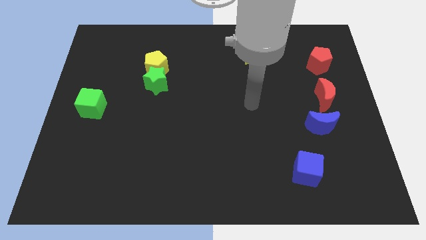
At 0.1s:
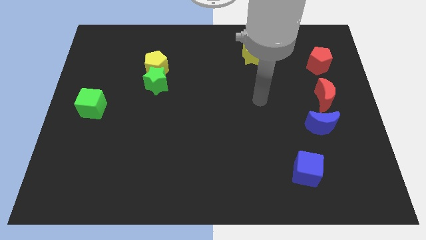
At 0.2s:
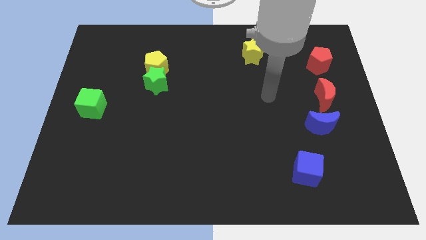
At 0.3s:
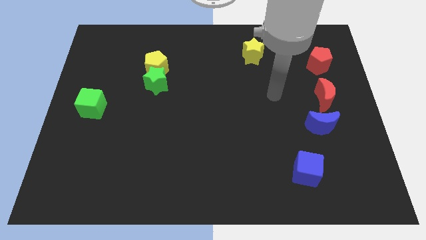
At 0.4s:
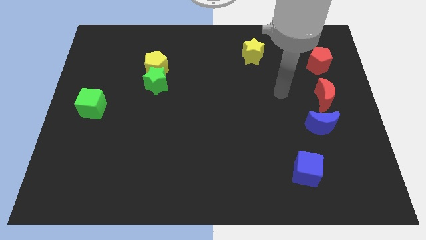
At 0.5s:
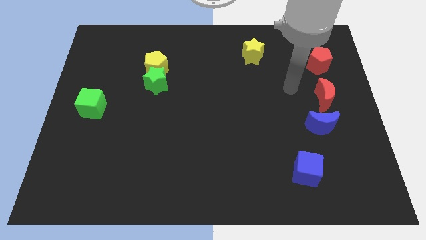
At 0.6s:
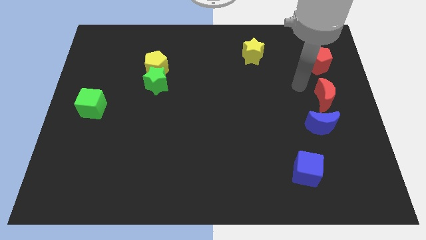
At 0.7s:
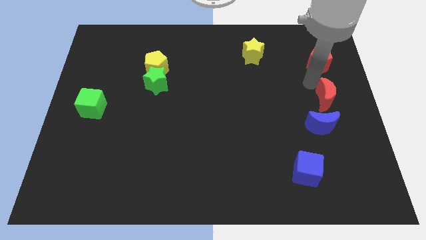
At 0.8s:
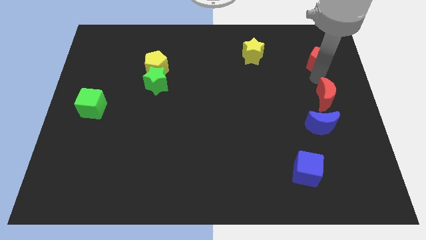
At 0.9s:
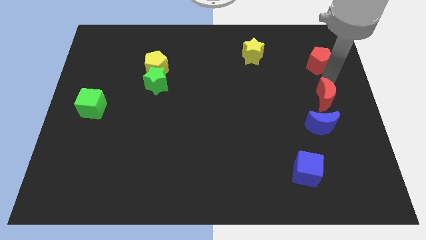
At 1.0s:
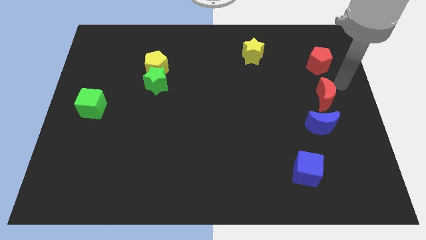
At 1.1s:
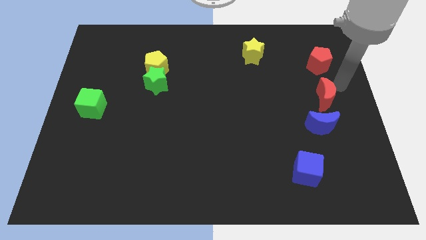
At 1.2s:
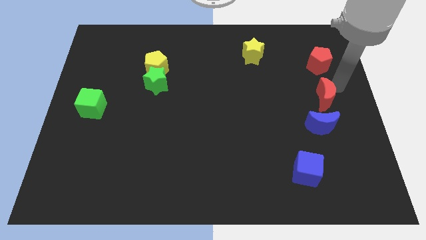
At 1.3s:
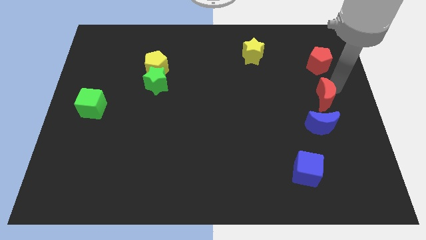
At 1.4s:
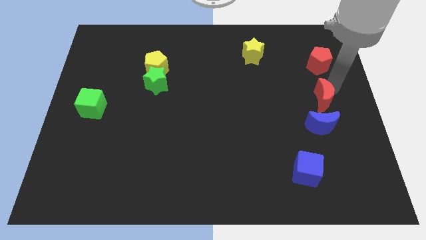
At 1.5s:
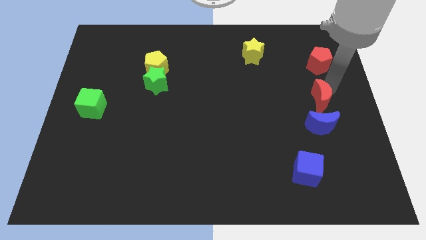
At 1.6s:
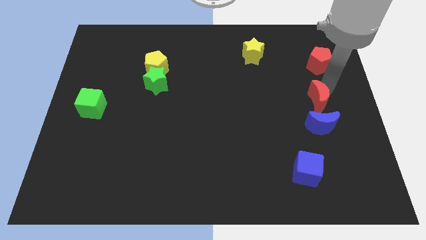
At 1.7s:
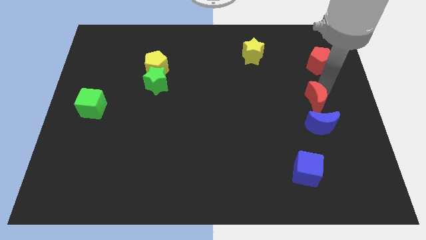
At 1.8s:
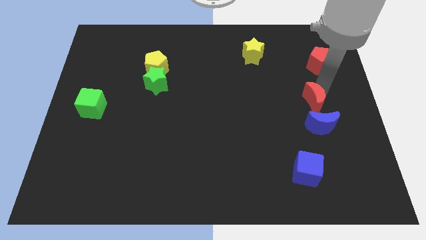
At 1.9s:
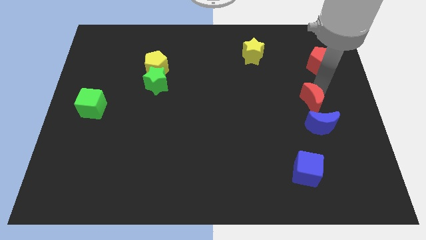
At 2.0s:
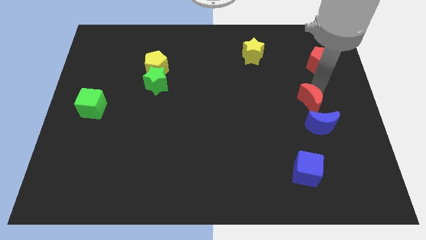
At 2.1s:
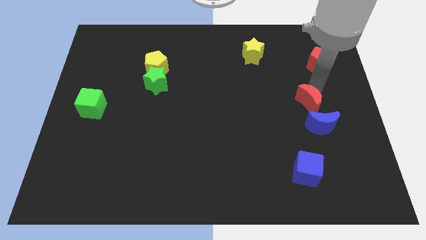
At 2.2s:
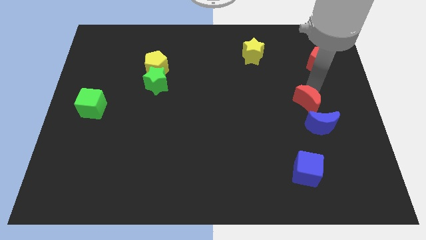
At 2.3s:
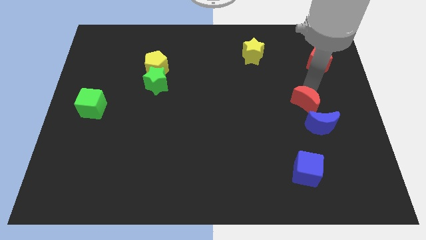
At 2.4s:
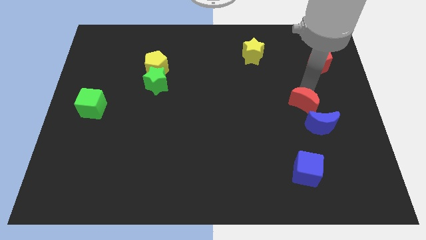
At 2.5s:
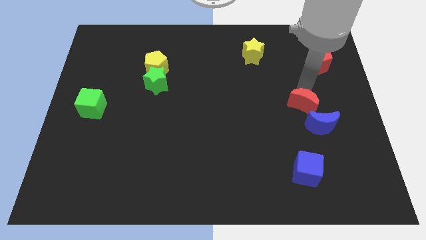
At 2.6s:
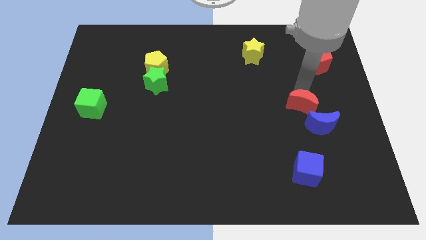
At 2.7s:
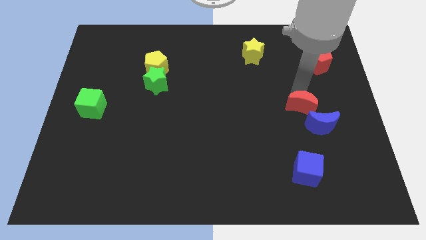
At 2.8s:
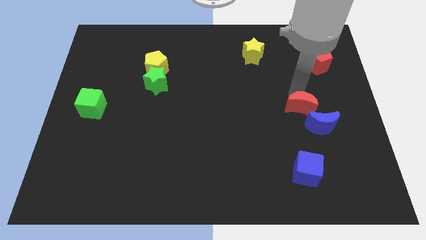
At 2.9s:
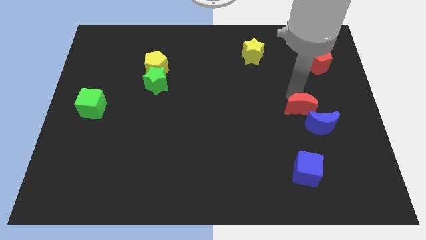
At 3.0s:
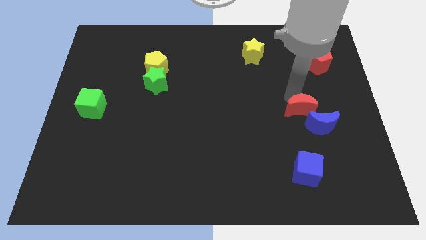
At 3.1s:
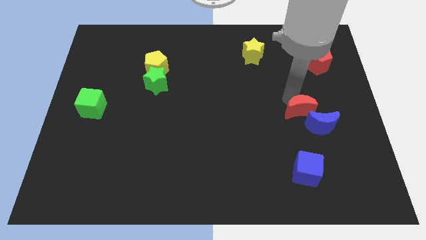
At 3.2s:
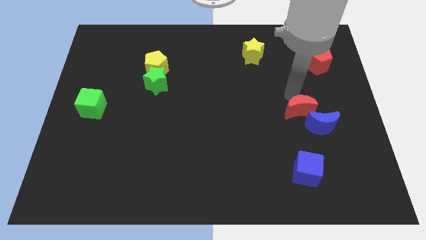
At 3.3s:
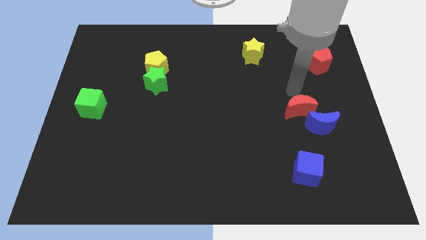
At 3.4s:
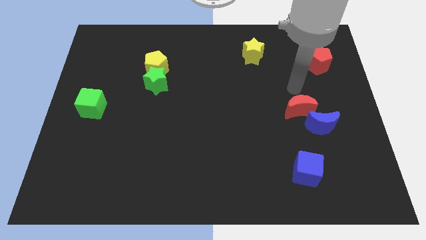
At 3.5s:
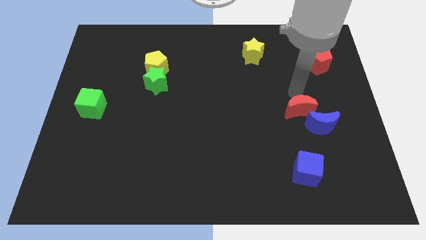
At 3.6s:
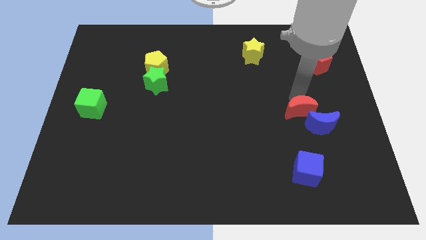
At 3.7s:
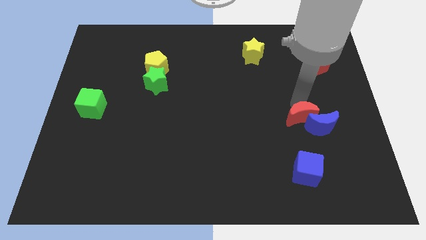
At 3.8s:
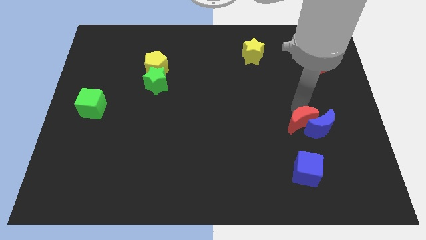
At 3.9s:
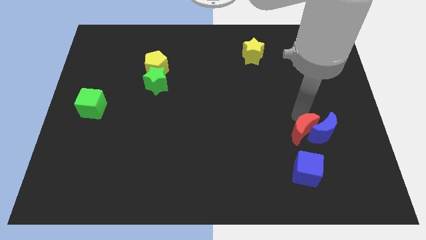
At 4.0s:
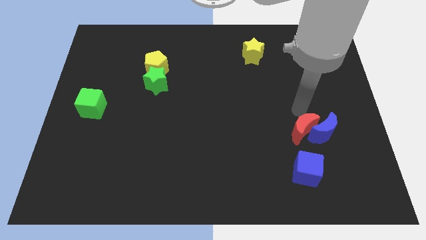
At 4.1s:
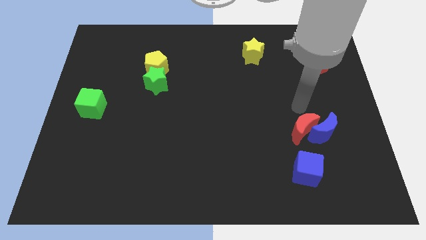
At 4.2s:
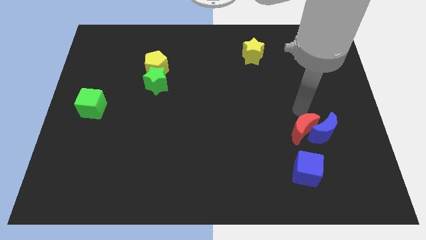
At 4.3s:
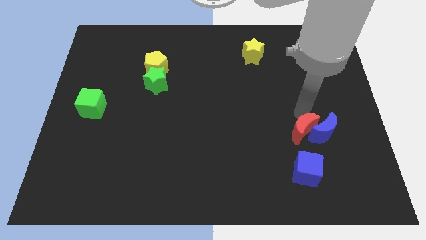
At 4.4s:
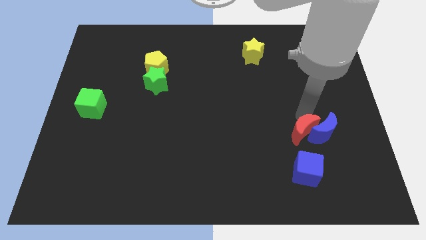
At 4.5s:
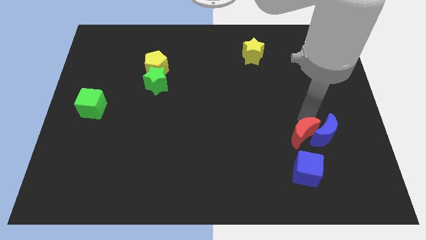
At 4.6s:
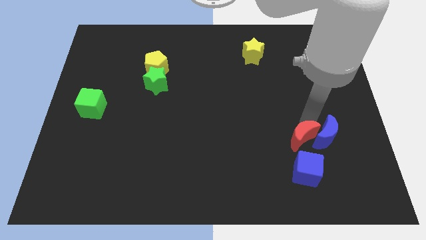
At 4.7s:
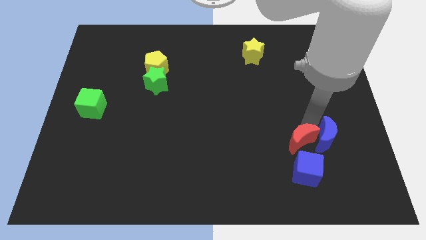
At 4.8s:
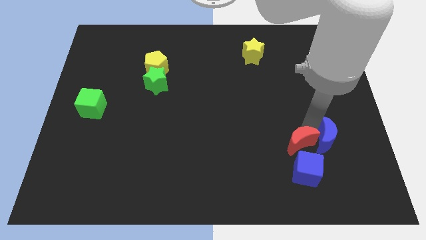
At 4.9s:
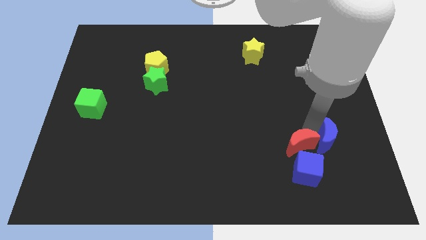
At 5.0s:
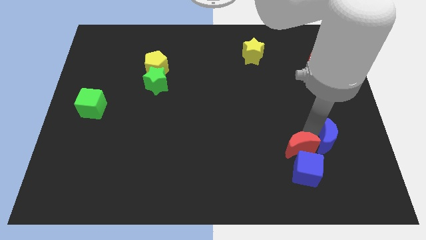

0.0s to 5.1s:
push the red moon to the blue cube

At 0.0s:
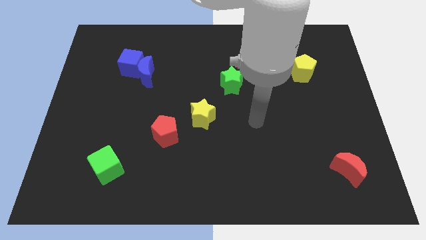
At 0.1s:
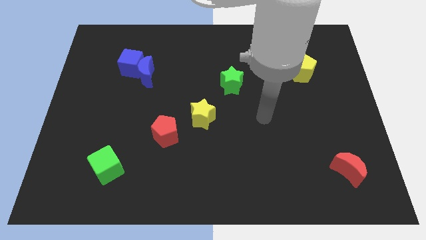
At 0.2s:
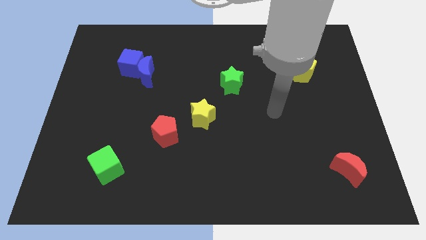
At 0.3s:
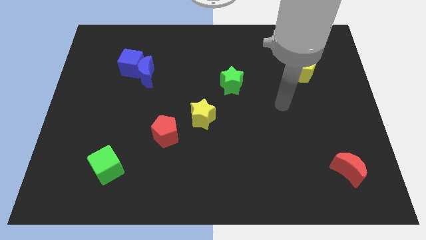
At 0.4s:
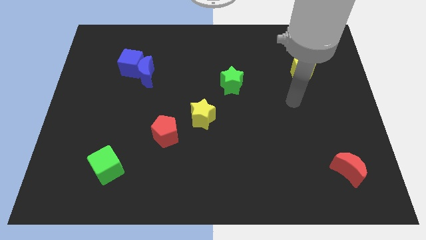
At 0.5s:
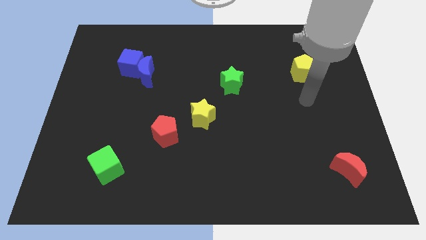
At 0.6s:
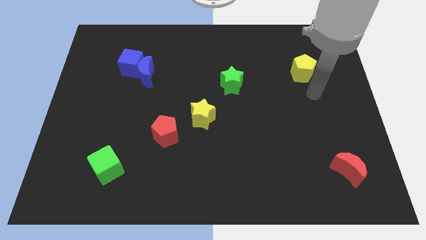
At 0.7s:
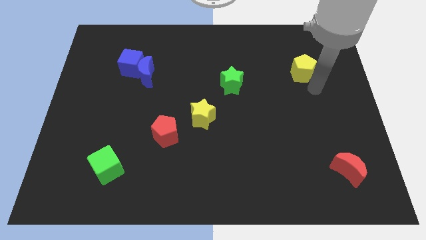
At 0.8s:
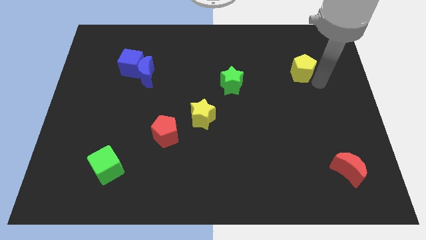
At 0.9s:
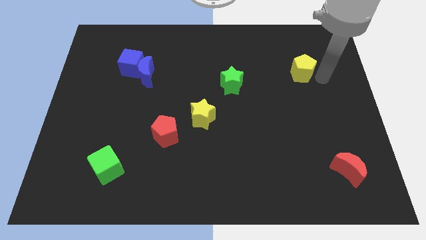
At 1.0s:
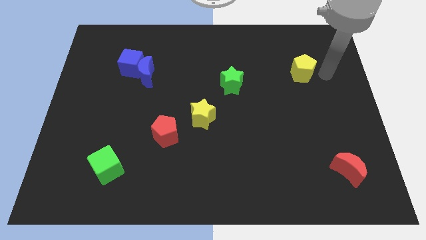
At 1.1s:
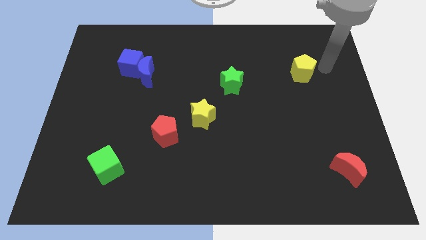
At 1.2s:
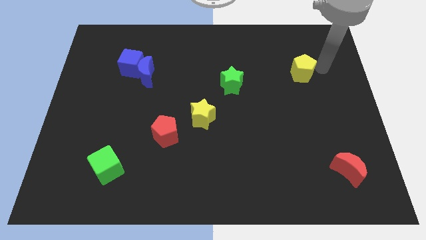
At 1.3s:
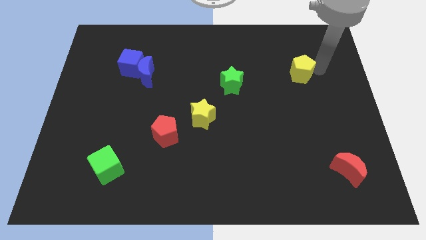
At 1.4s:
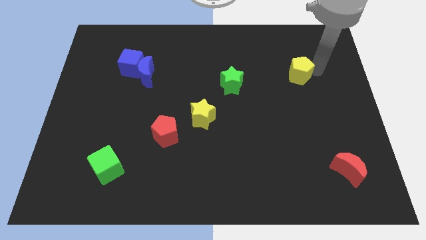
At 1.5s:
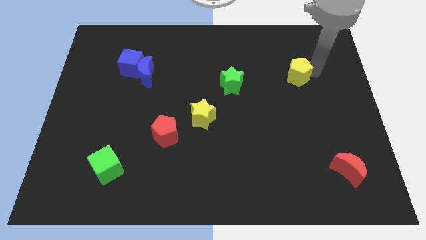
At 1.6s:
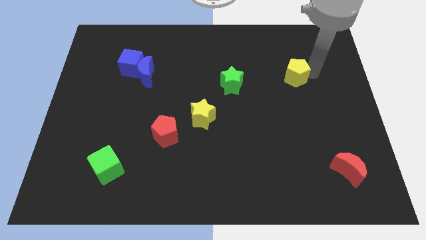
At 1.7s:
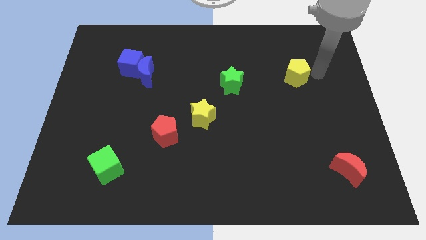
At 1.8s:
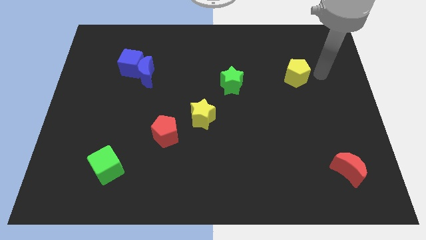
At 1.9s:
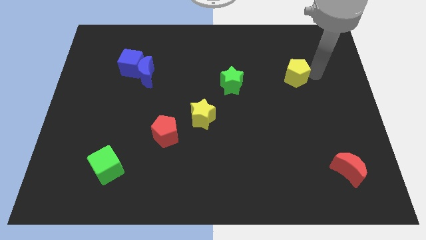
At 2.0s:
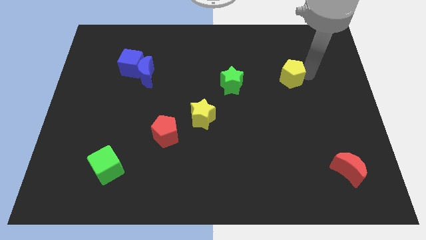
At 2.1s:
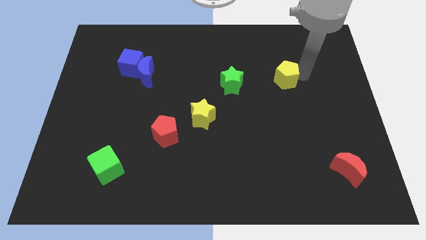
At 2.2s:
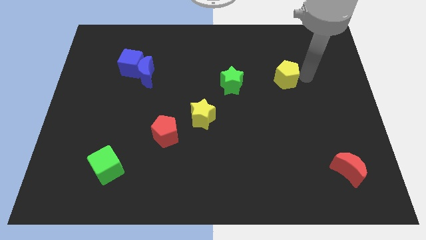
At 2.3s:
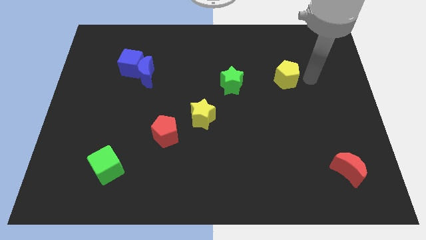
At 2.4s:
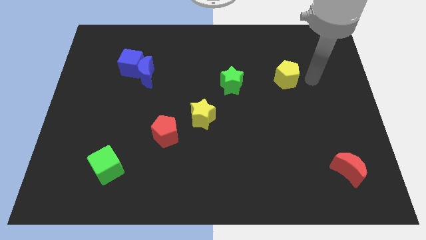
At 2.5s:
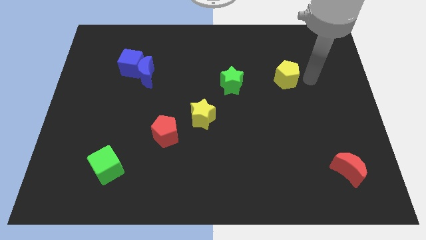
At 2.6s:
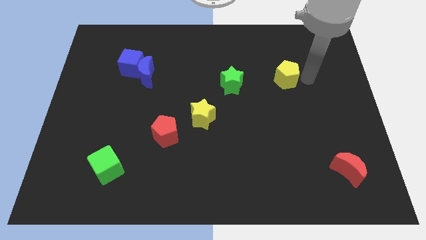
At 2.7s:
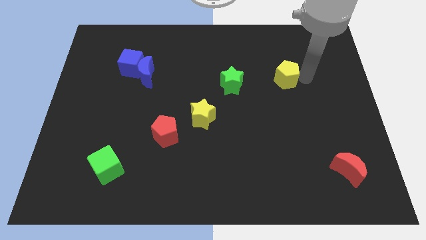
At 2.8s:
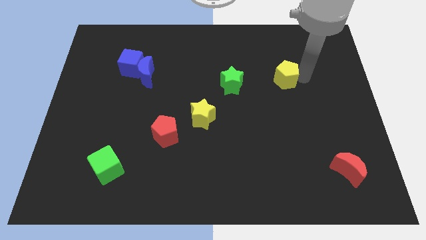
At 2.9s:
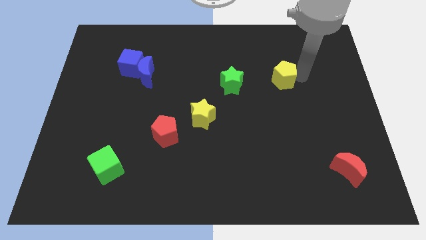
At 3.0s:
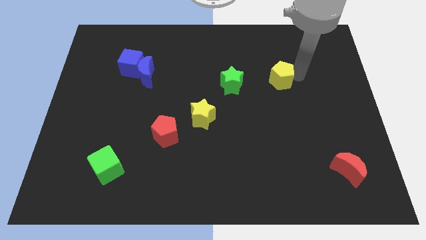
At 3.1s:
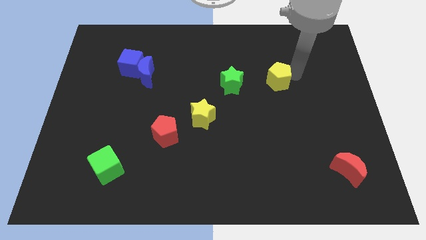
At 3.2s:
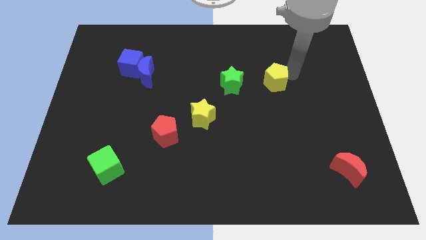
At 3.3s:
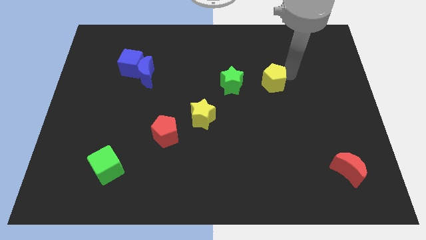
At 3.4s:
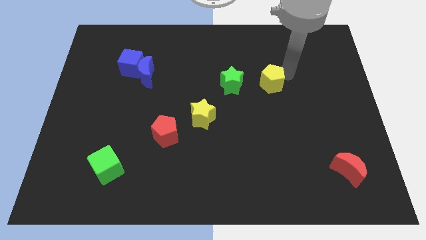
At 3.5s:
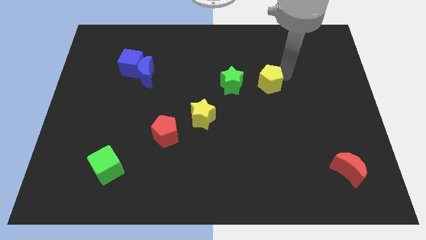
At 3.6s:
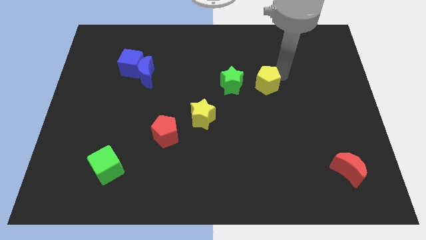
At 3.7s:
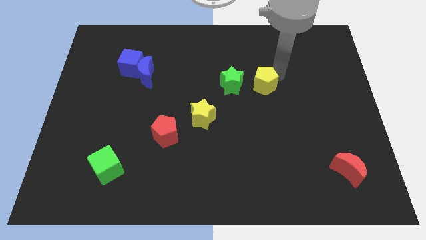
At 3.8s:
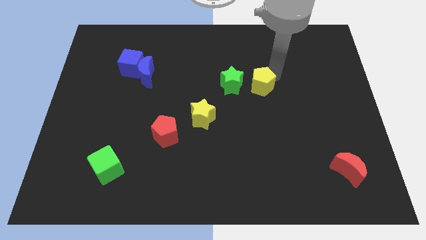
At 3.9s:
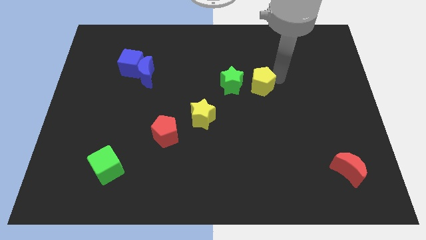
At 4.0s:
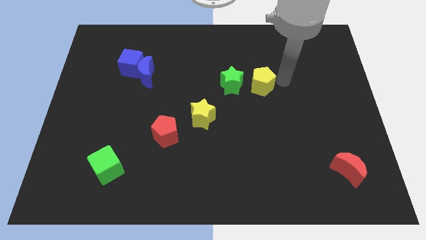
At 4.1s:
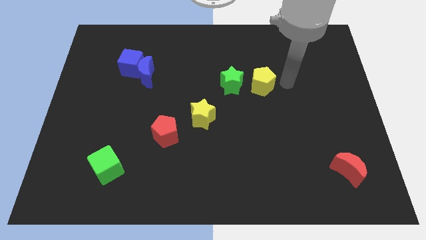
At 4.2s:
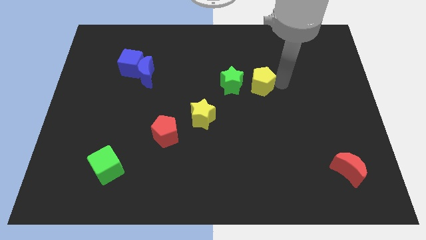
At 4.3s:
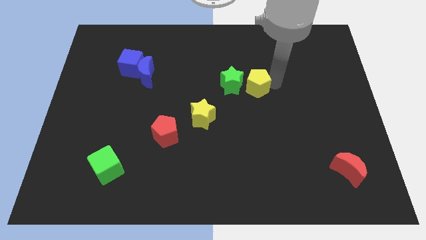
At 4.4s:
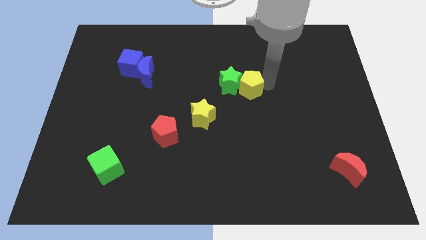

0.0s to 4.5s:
push the yellow pentagon close to the green star
